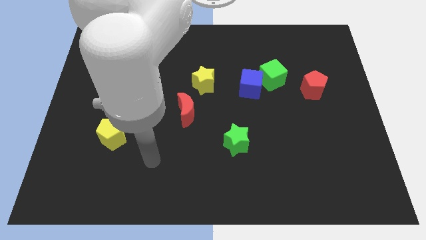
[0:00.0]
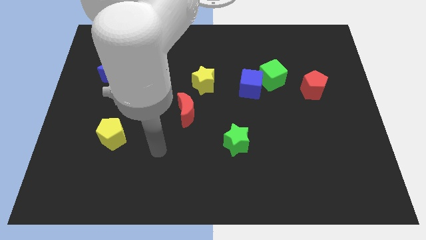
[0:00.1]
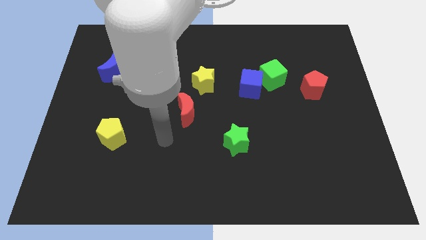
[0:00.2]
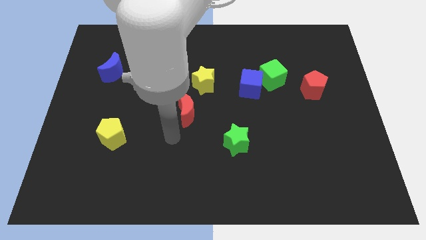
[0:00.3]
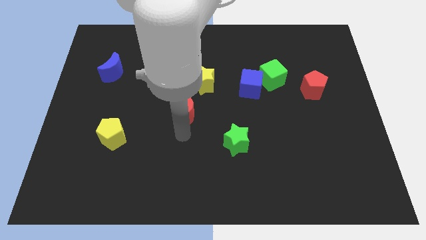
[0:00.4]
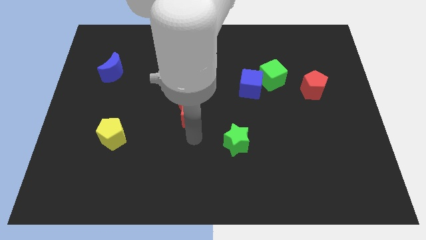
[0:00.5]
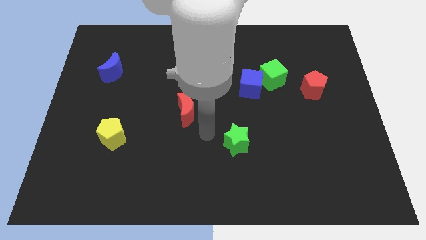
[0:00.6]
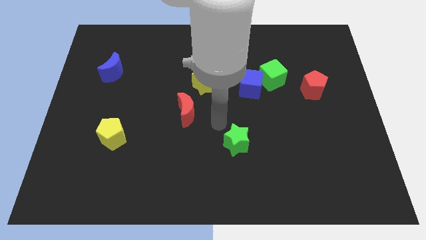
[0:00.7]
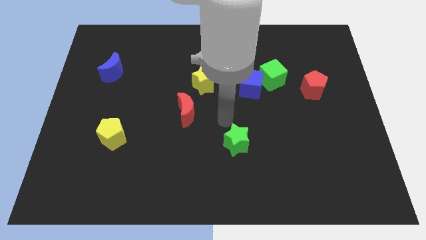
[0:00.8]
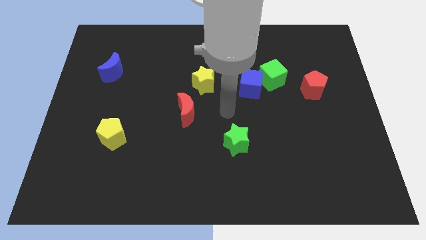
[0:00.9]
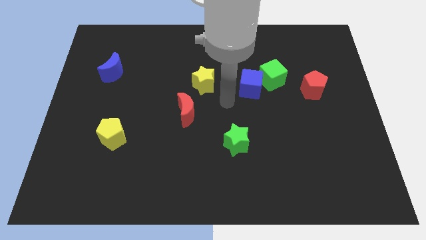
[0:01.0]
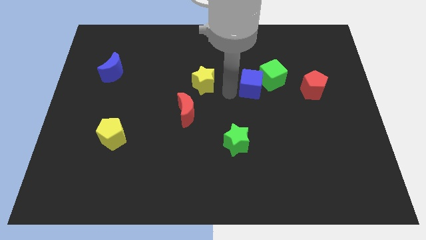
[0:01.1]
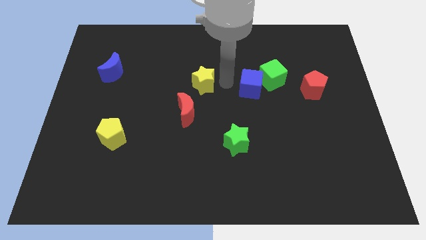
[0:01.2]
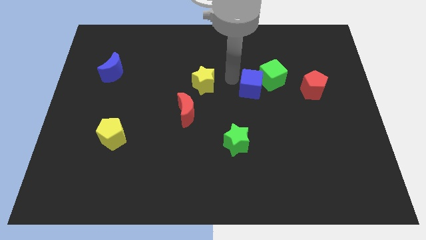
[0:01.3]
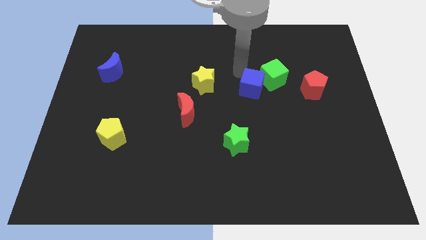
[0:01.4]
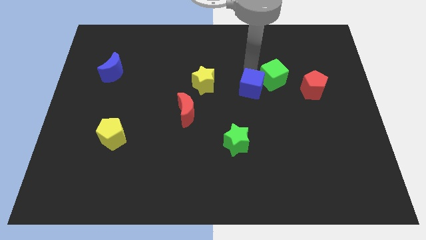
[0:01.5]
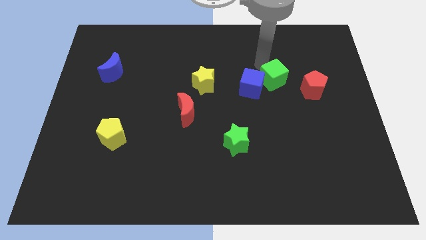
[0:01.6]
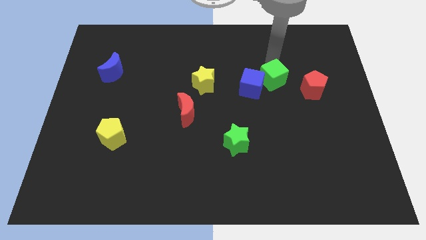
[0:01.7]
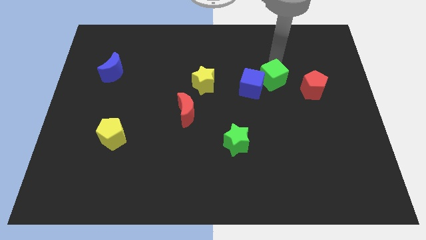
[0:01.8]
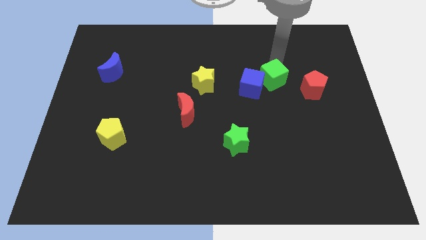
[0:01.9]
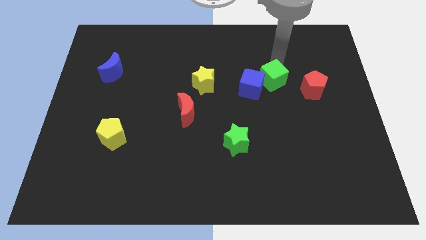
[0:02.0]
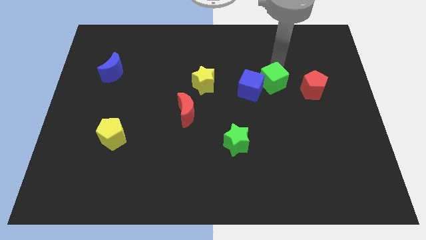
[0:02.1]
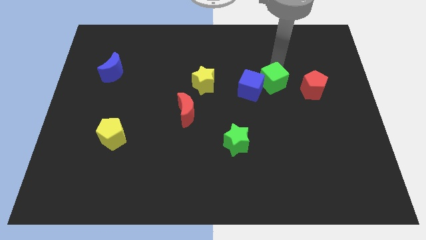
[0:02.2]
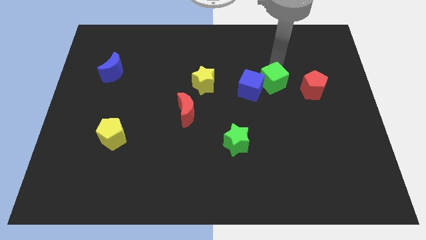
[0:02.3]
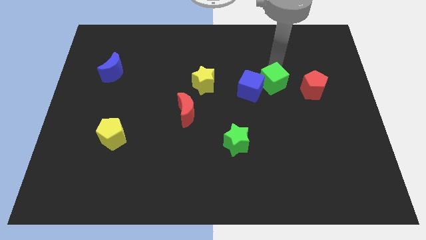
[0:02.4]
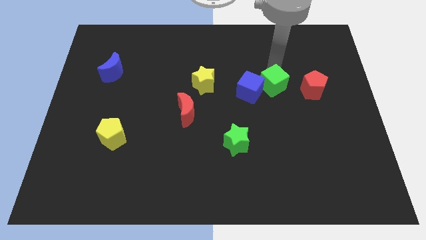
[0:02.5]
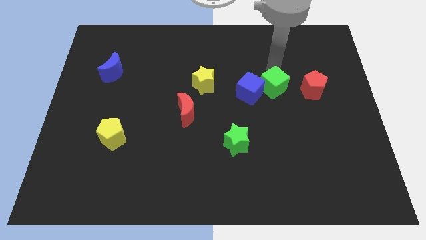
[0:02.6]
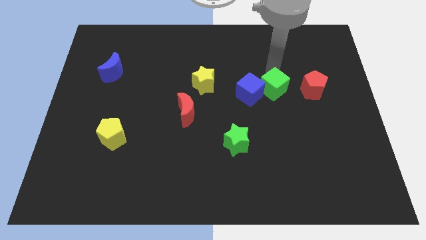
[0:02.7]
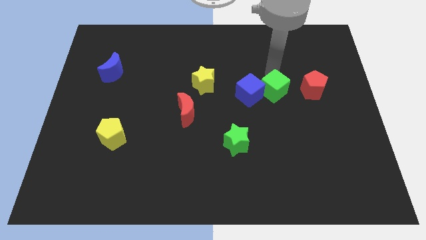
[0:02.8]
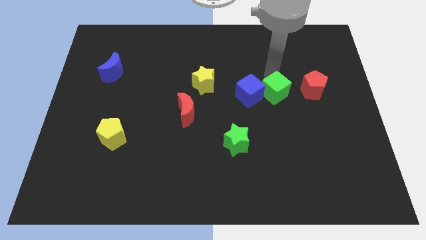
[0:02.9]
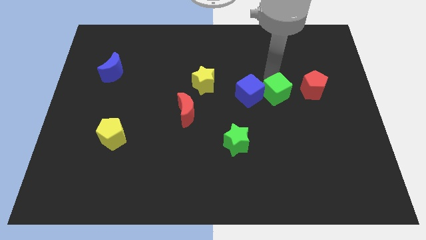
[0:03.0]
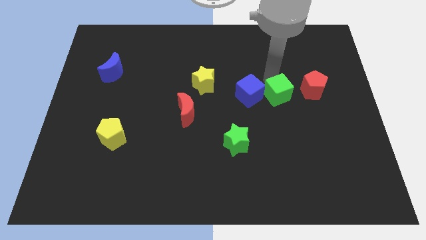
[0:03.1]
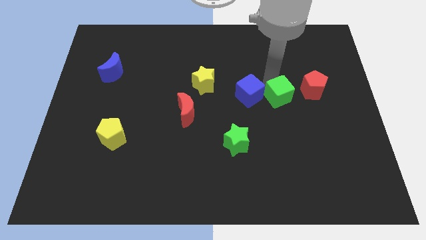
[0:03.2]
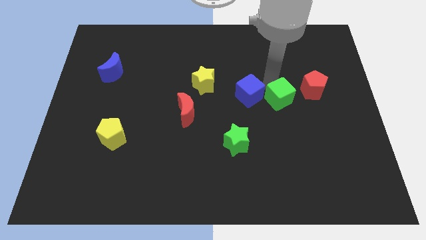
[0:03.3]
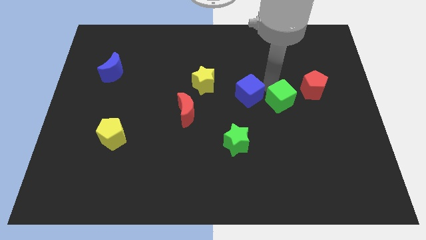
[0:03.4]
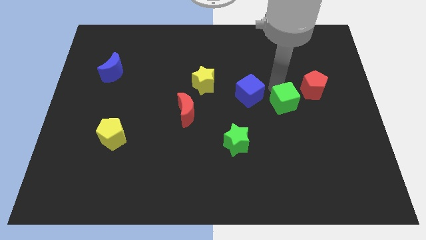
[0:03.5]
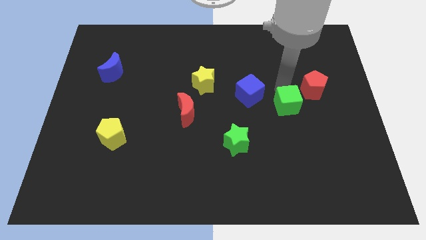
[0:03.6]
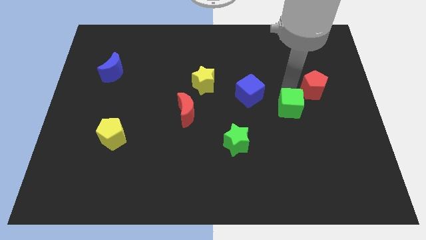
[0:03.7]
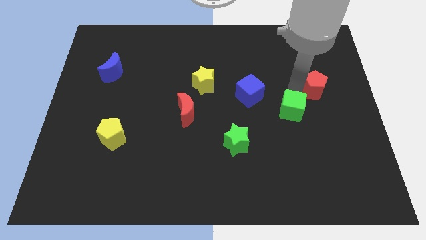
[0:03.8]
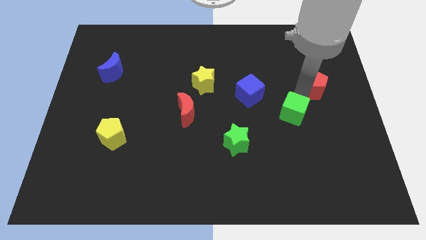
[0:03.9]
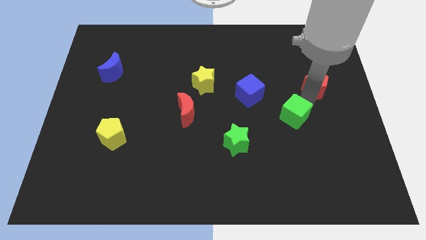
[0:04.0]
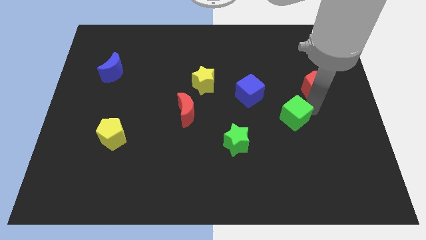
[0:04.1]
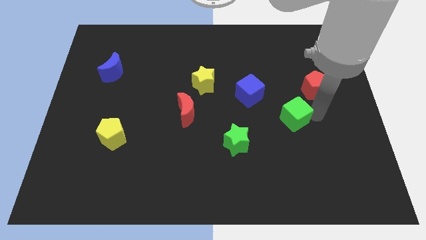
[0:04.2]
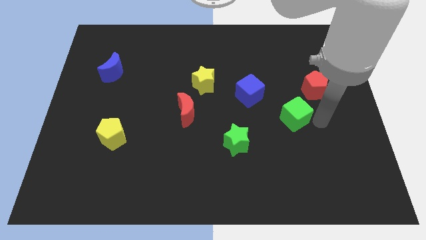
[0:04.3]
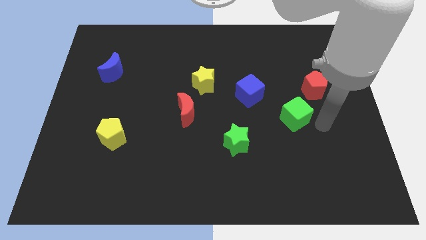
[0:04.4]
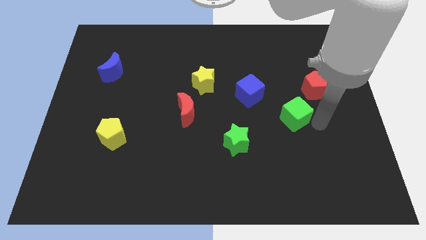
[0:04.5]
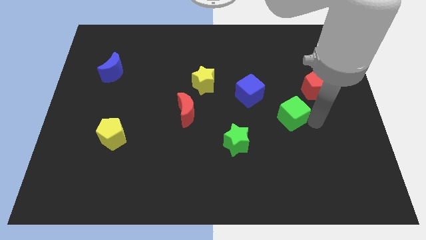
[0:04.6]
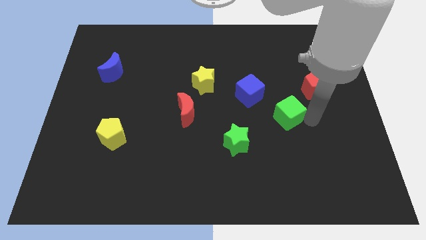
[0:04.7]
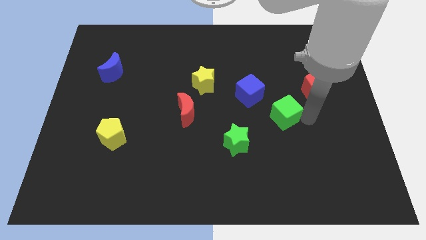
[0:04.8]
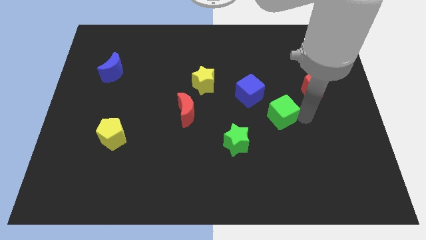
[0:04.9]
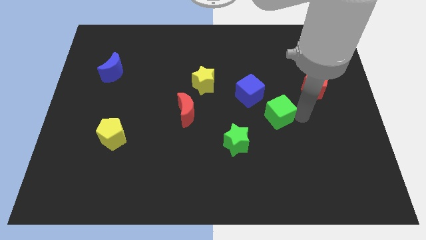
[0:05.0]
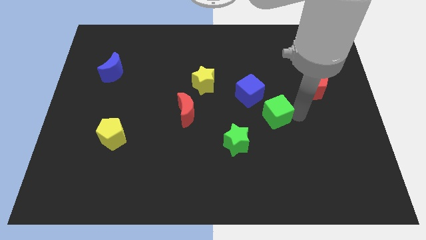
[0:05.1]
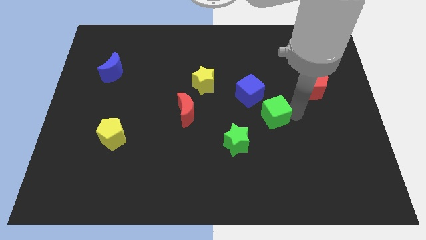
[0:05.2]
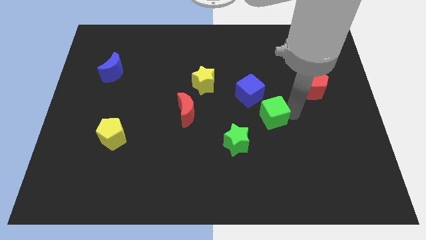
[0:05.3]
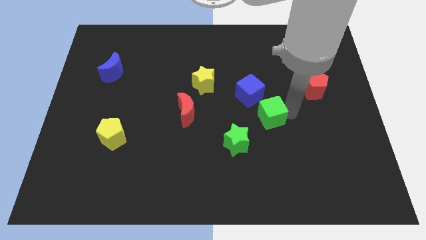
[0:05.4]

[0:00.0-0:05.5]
move the green cube somewhat downwards and then to the left

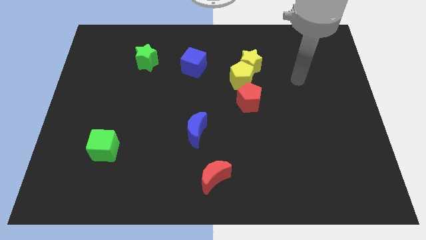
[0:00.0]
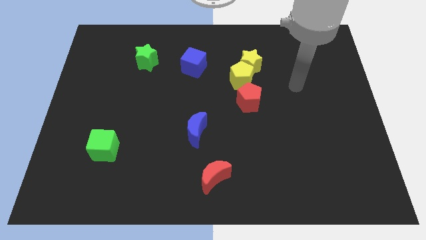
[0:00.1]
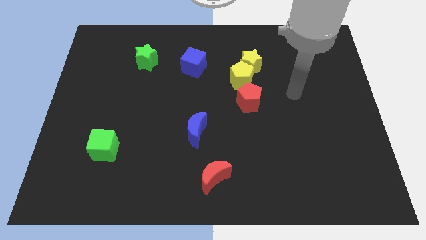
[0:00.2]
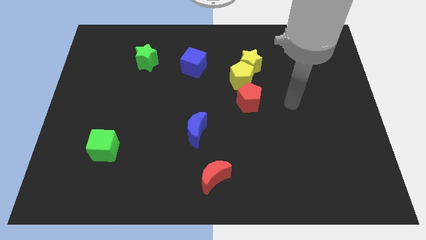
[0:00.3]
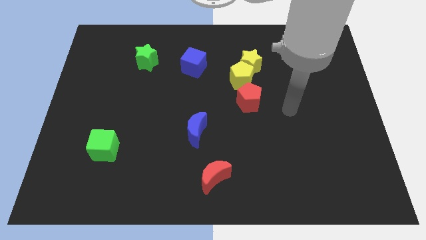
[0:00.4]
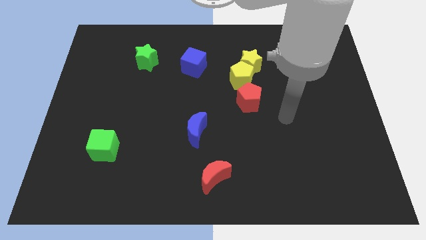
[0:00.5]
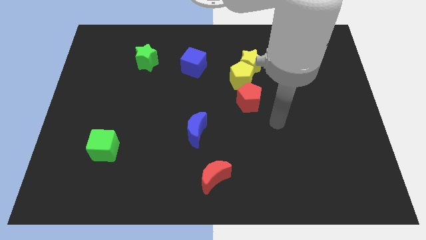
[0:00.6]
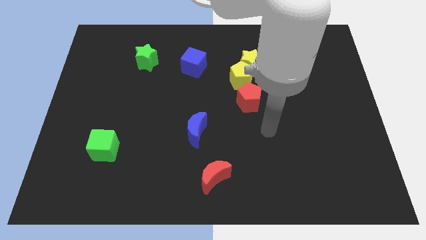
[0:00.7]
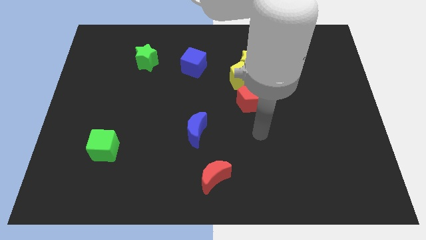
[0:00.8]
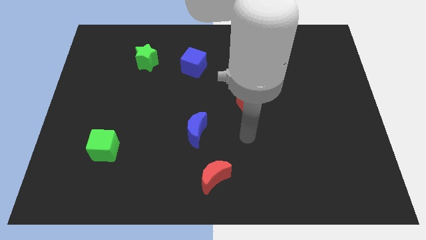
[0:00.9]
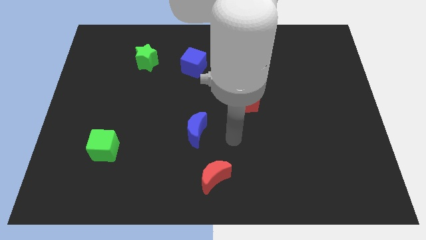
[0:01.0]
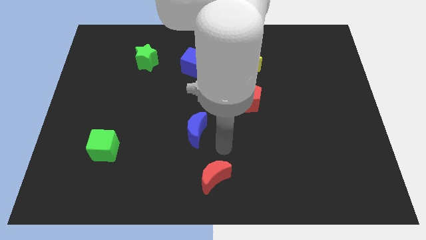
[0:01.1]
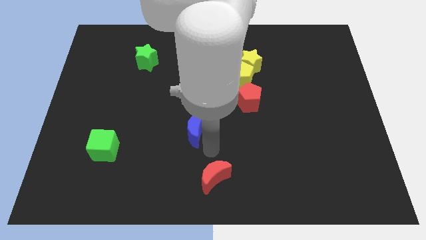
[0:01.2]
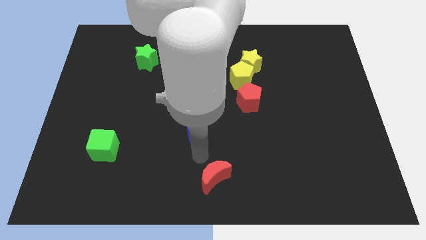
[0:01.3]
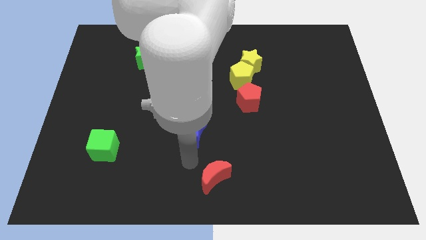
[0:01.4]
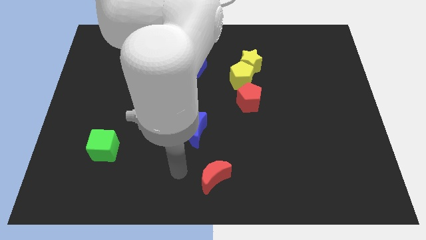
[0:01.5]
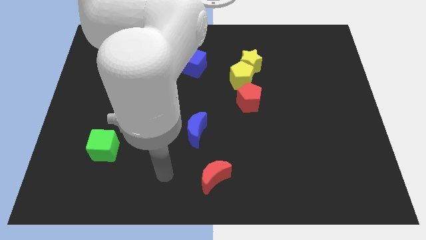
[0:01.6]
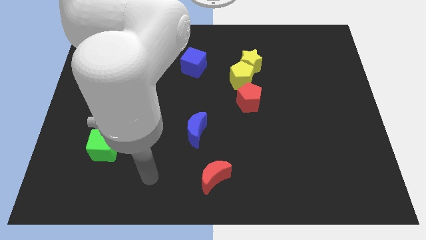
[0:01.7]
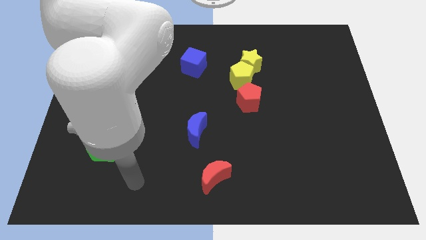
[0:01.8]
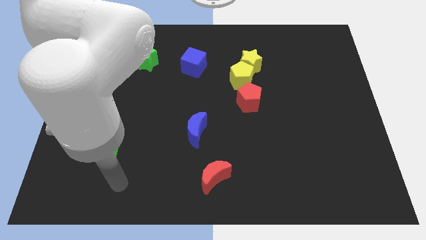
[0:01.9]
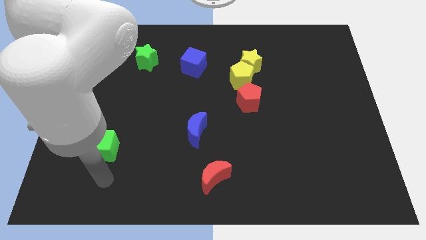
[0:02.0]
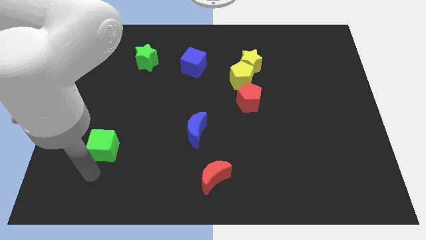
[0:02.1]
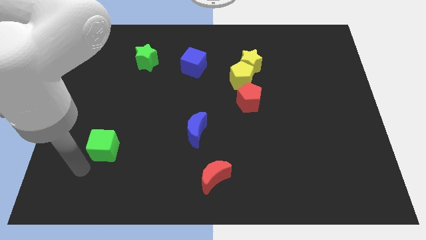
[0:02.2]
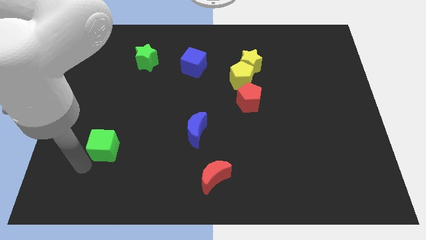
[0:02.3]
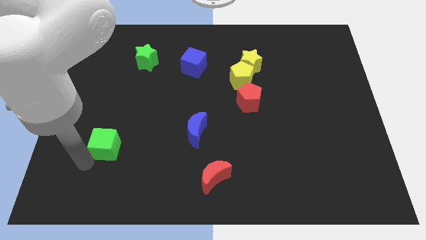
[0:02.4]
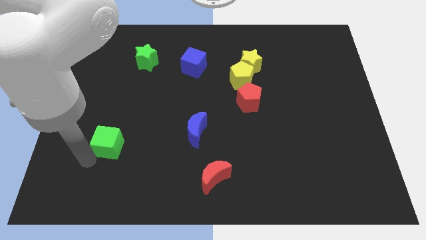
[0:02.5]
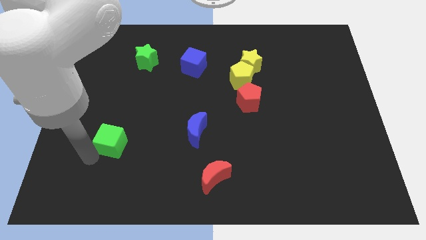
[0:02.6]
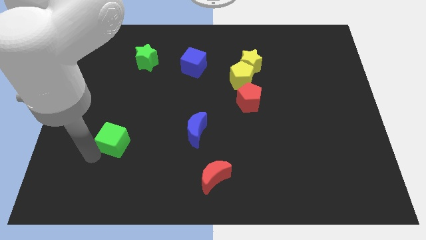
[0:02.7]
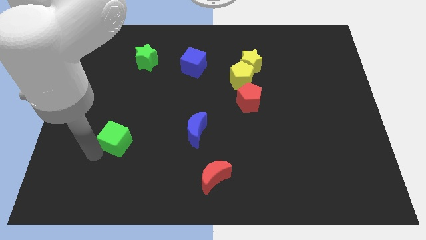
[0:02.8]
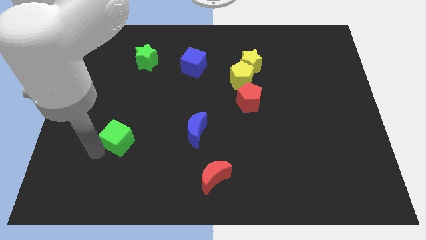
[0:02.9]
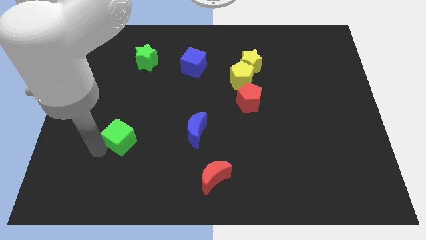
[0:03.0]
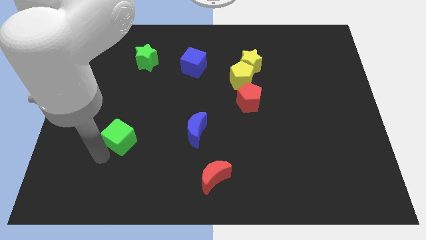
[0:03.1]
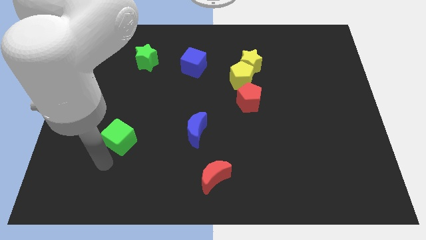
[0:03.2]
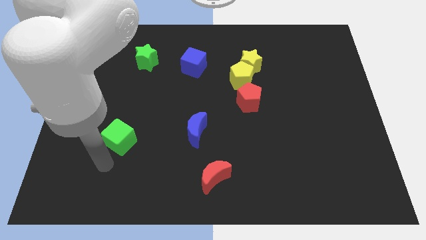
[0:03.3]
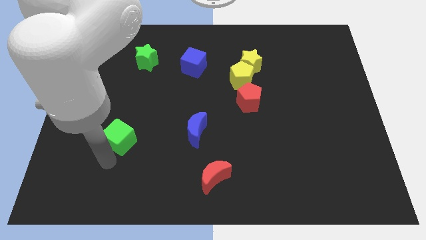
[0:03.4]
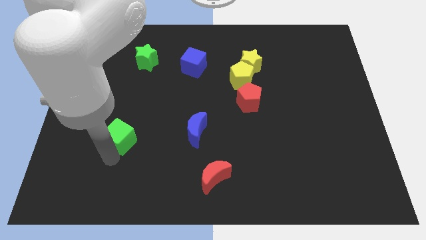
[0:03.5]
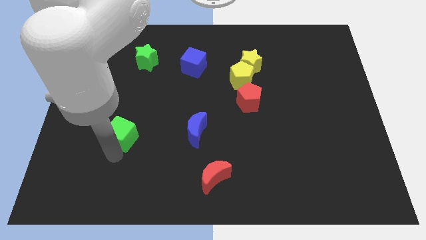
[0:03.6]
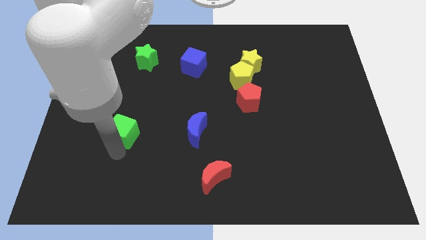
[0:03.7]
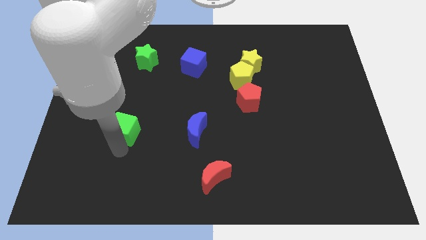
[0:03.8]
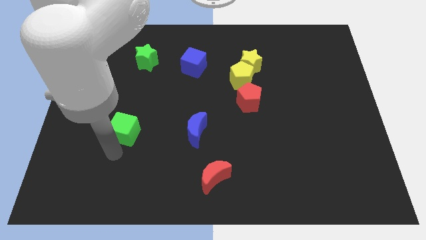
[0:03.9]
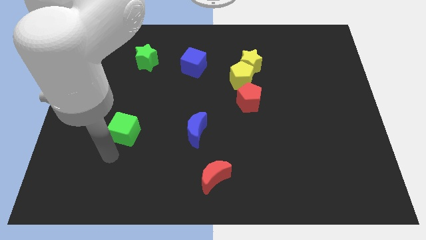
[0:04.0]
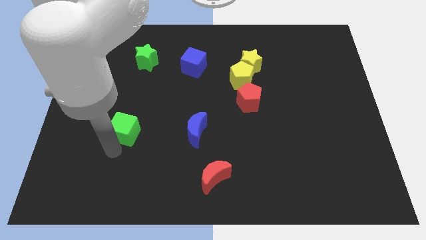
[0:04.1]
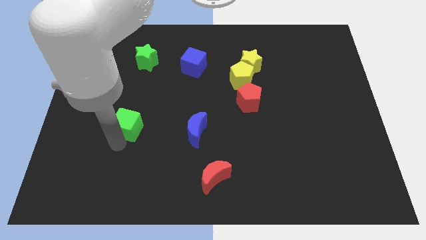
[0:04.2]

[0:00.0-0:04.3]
slide the green cube up and then right slightly
